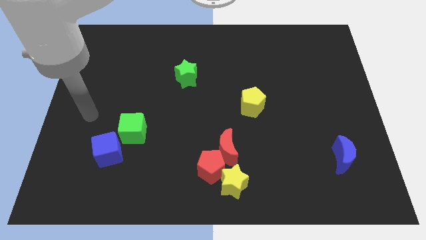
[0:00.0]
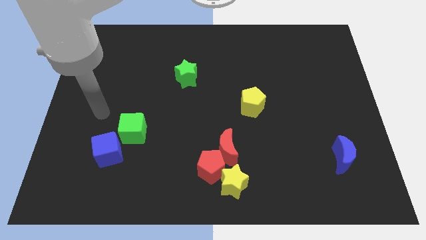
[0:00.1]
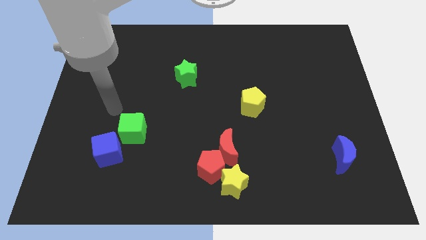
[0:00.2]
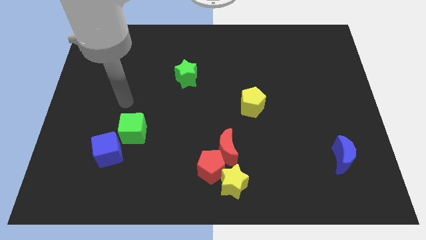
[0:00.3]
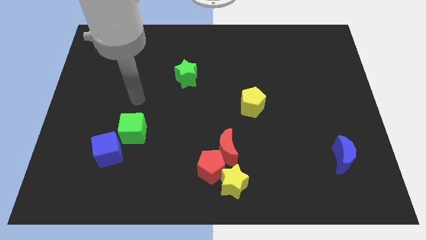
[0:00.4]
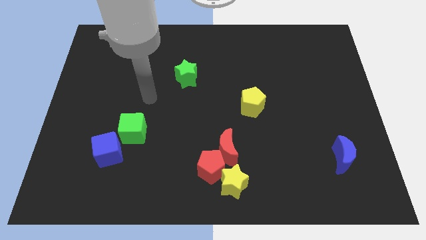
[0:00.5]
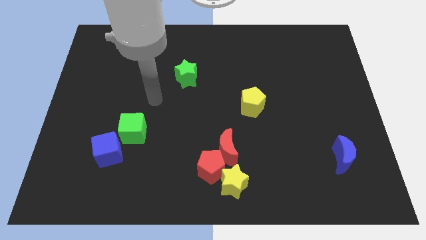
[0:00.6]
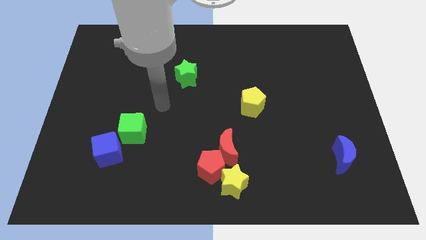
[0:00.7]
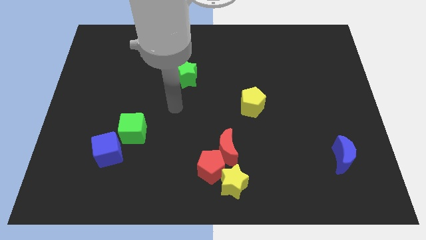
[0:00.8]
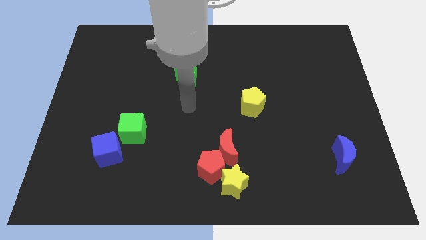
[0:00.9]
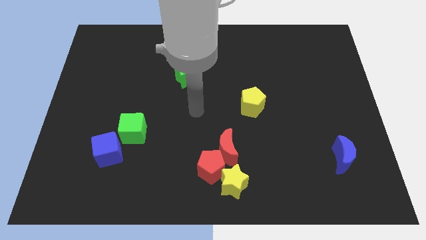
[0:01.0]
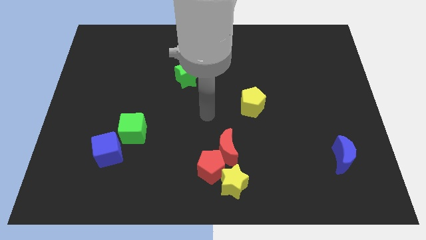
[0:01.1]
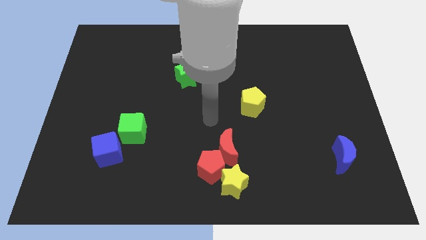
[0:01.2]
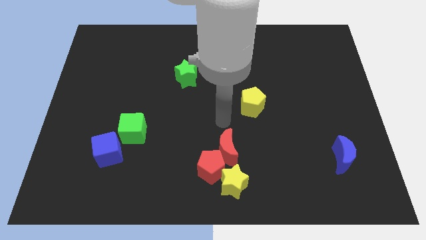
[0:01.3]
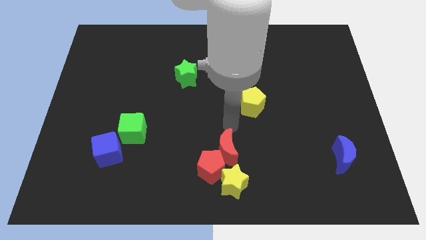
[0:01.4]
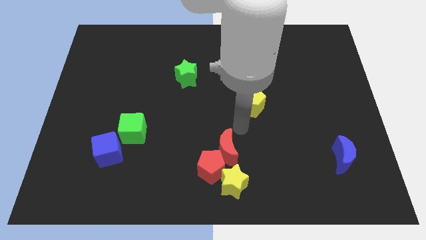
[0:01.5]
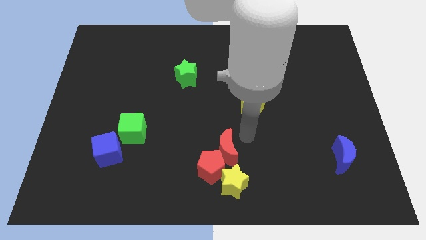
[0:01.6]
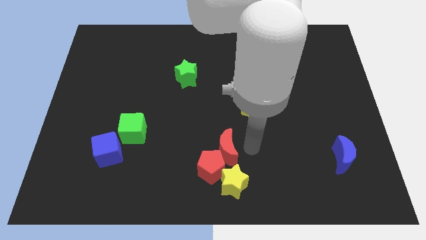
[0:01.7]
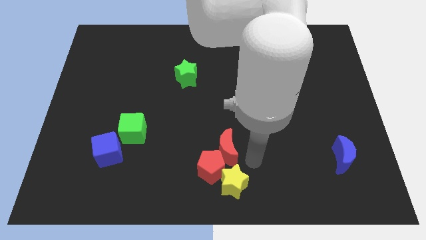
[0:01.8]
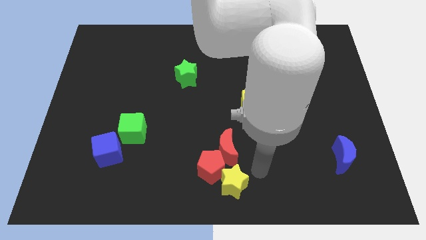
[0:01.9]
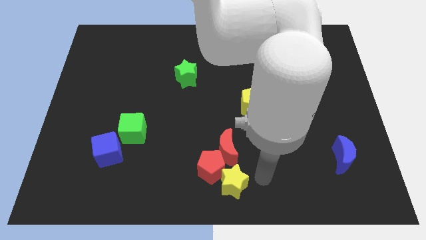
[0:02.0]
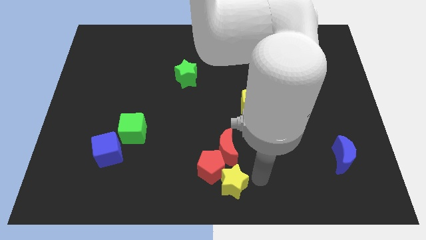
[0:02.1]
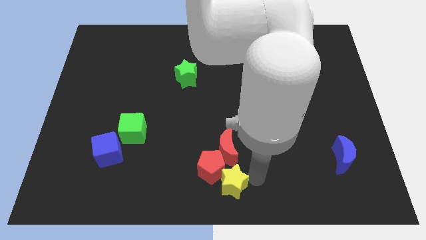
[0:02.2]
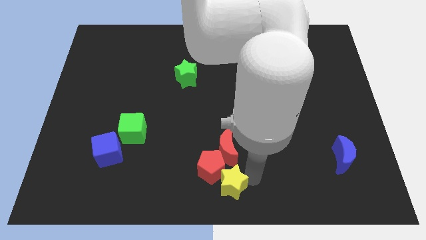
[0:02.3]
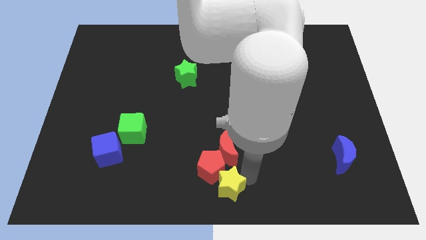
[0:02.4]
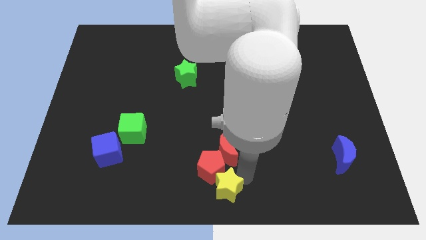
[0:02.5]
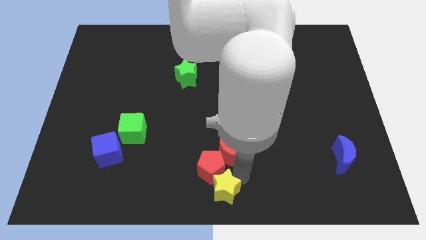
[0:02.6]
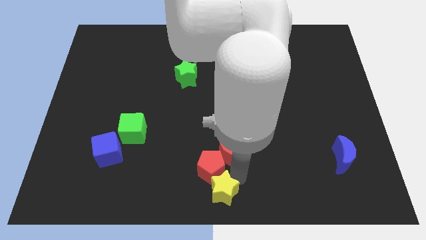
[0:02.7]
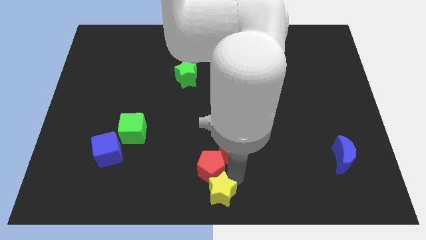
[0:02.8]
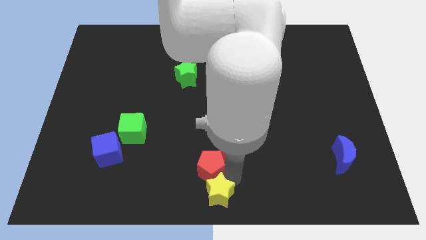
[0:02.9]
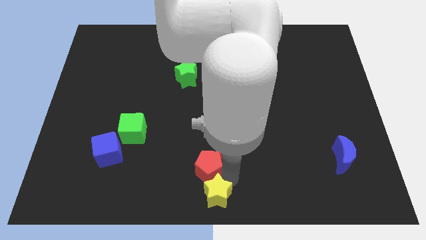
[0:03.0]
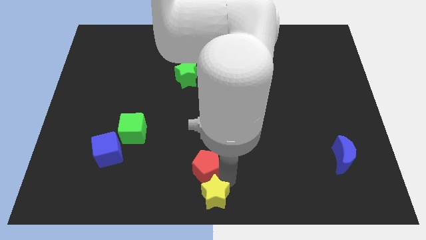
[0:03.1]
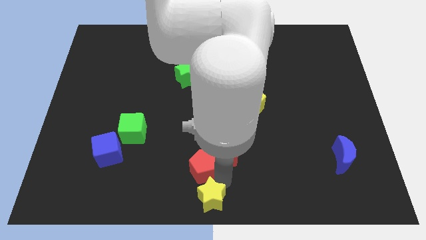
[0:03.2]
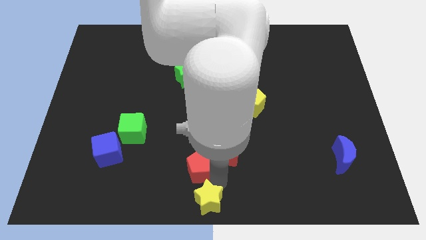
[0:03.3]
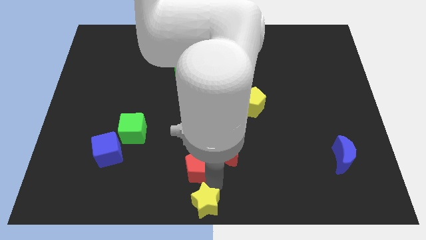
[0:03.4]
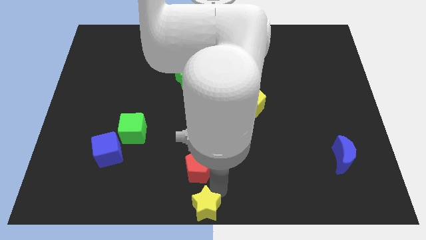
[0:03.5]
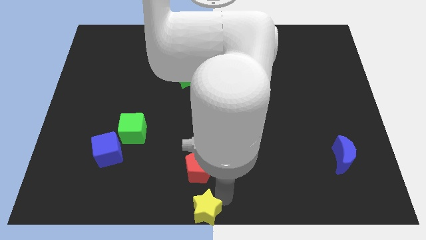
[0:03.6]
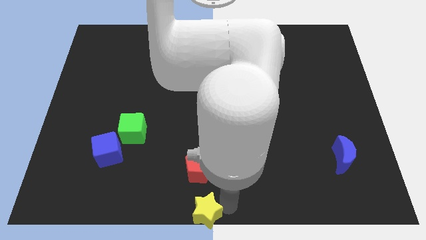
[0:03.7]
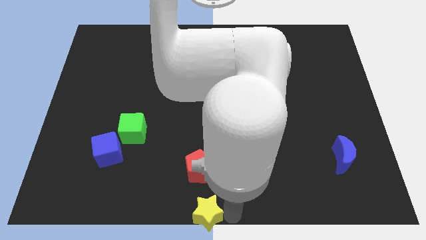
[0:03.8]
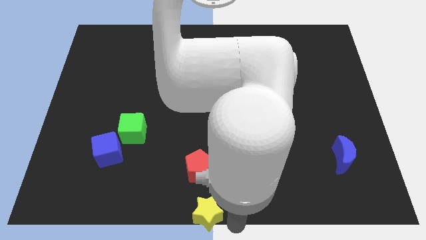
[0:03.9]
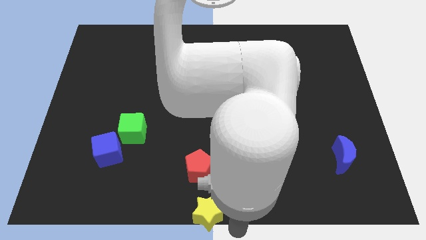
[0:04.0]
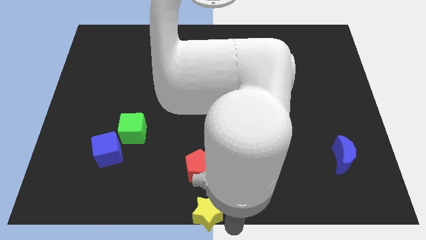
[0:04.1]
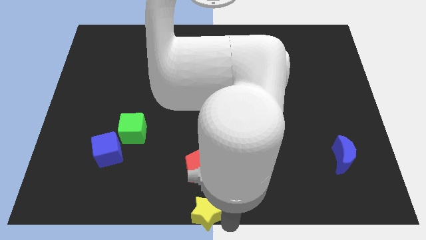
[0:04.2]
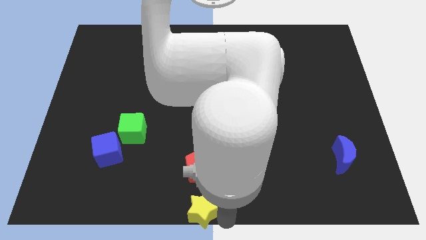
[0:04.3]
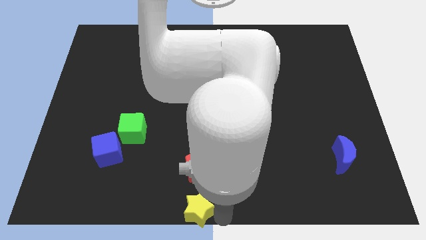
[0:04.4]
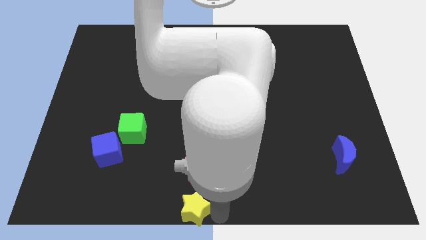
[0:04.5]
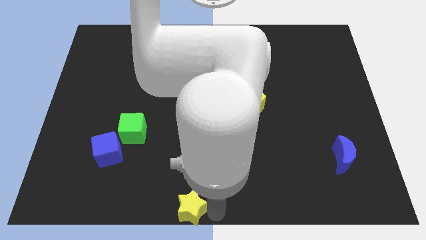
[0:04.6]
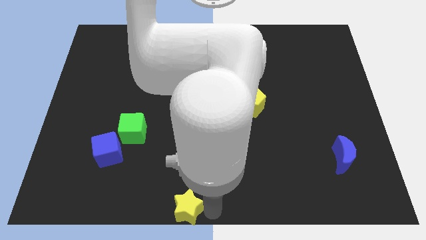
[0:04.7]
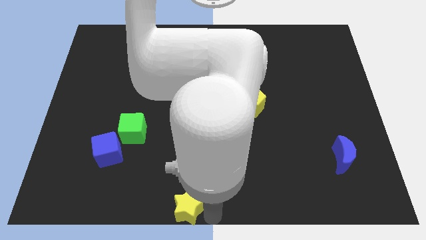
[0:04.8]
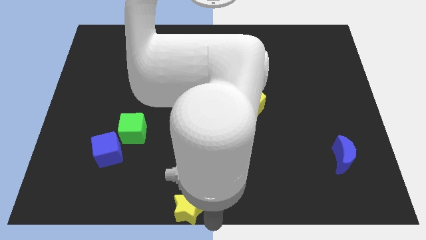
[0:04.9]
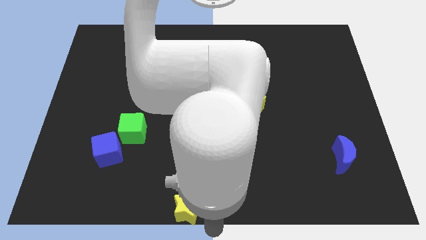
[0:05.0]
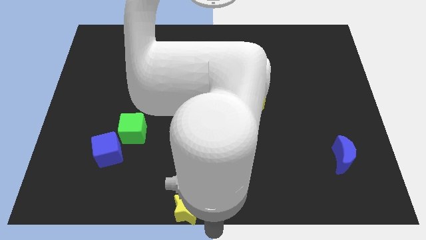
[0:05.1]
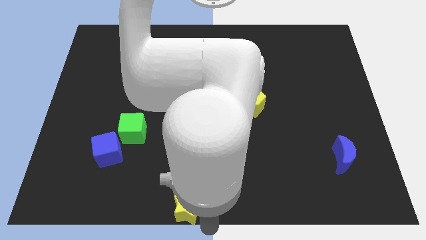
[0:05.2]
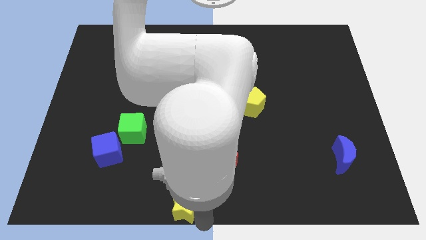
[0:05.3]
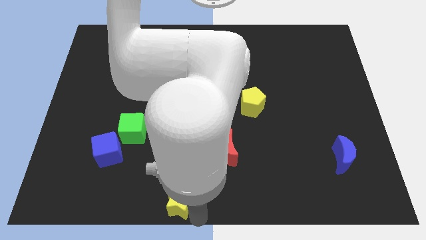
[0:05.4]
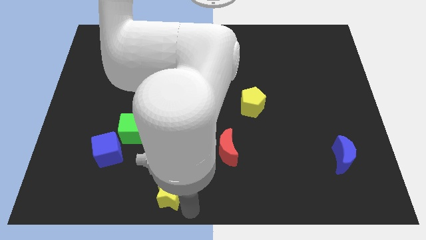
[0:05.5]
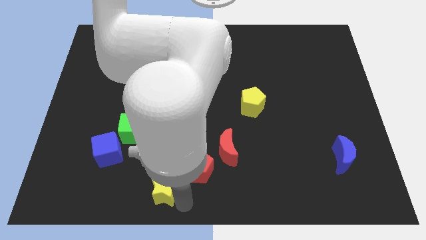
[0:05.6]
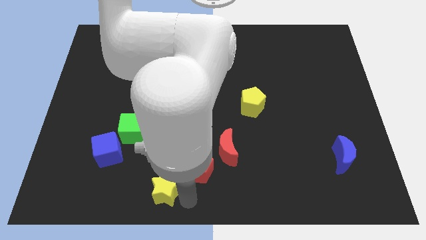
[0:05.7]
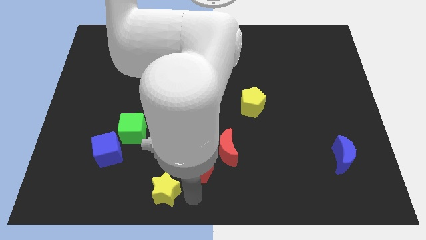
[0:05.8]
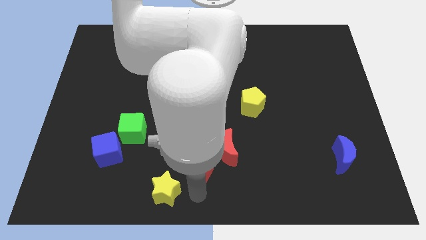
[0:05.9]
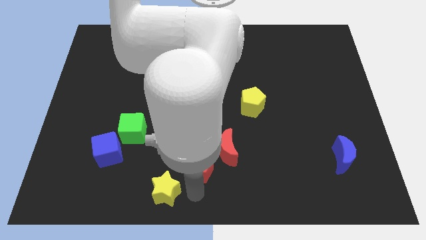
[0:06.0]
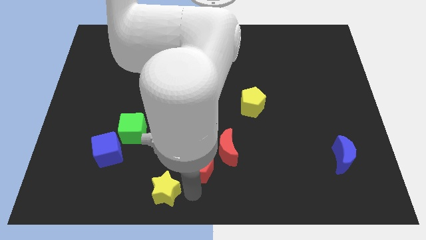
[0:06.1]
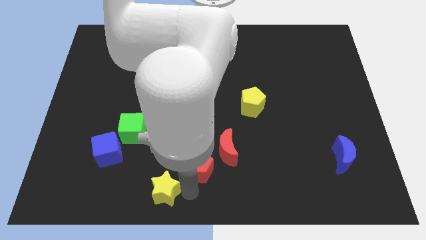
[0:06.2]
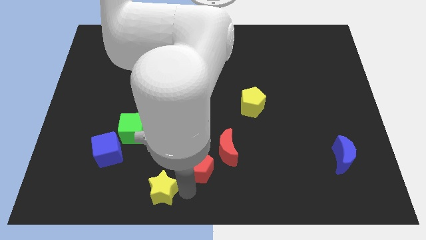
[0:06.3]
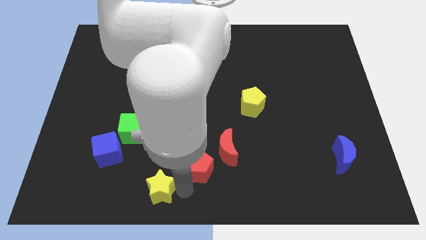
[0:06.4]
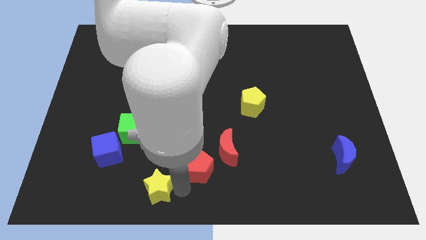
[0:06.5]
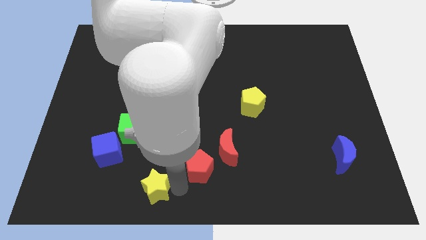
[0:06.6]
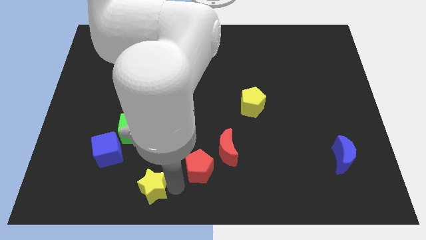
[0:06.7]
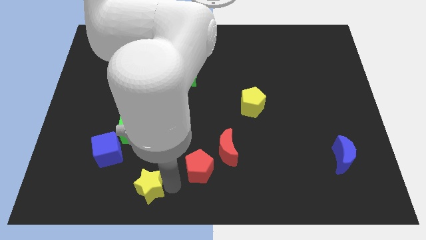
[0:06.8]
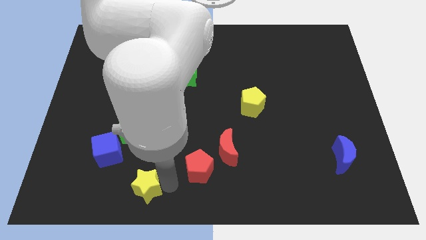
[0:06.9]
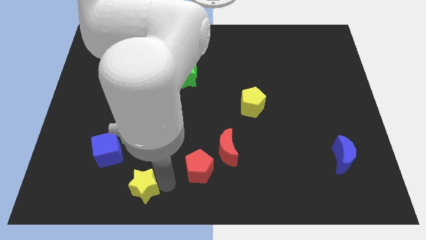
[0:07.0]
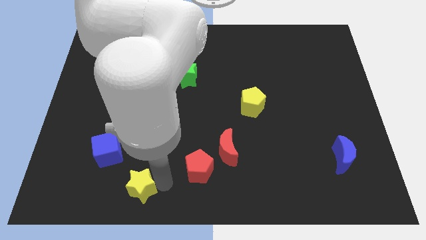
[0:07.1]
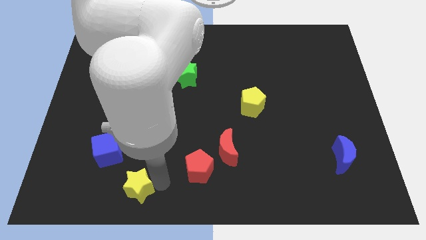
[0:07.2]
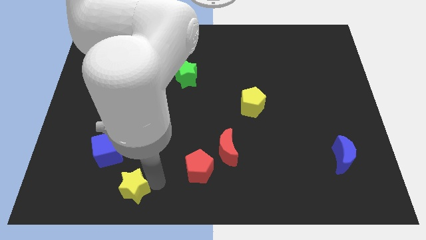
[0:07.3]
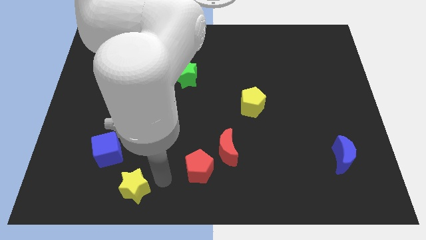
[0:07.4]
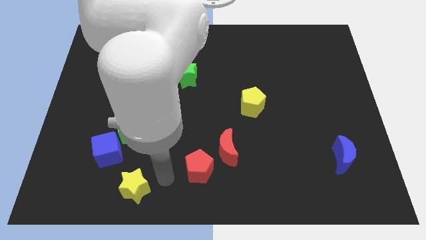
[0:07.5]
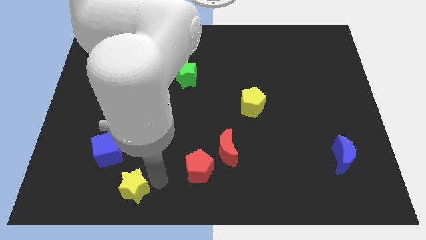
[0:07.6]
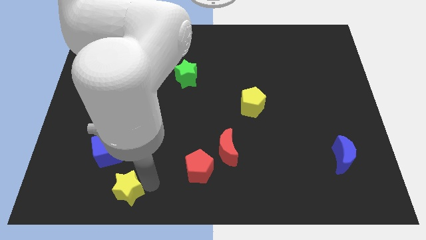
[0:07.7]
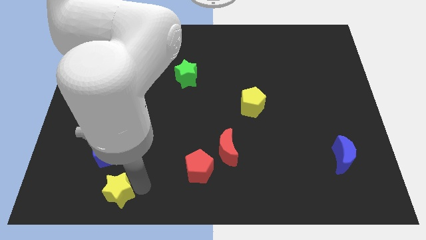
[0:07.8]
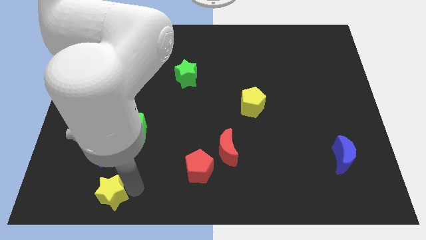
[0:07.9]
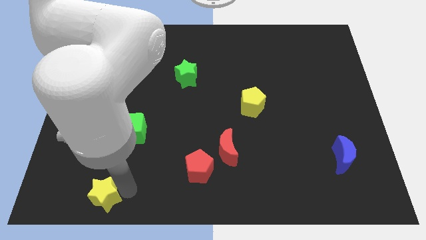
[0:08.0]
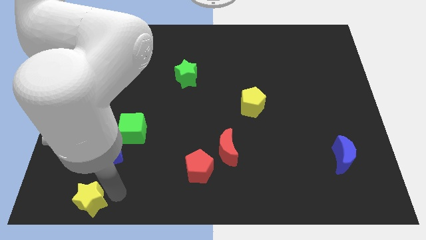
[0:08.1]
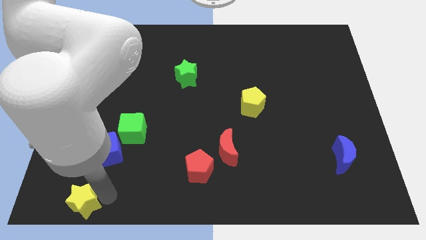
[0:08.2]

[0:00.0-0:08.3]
push the yellow star to the bottom left of the board
